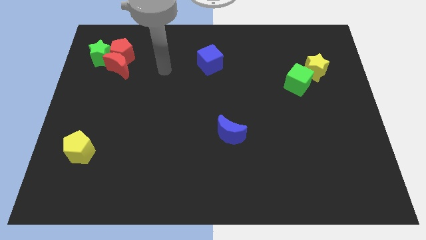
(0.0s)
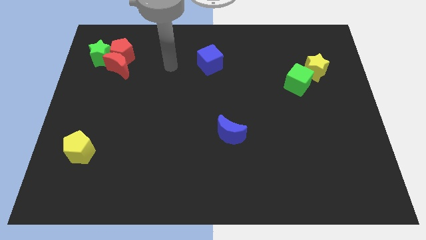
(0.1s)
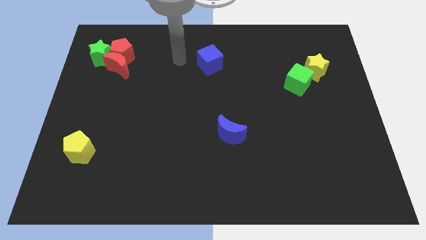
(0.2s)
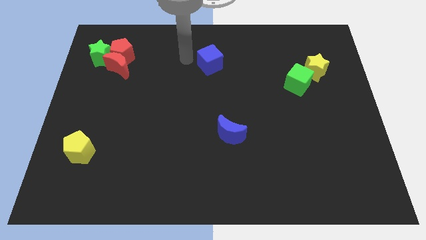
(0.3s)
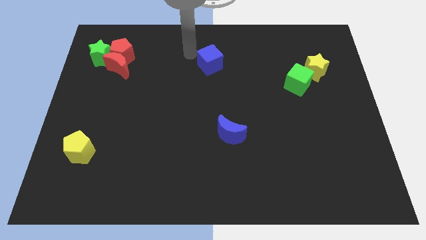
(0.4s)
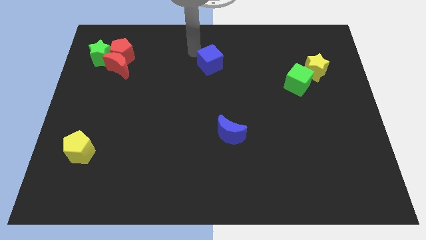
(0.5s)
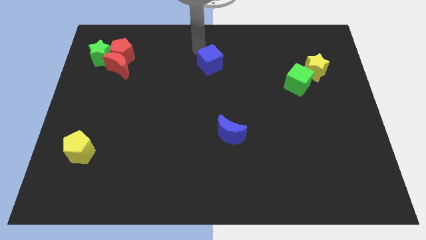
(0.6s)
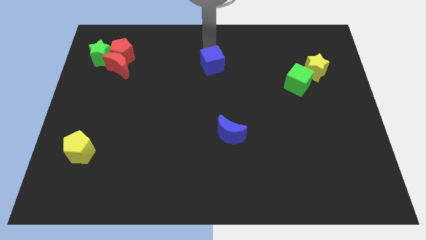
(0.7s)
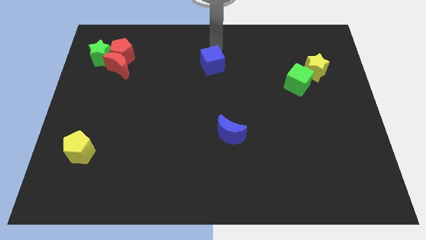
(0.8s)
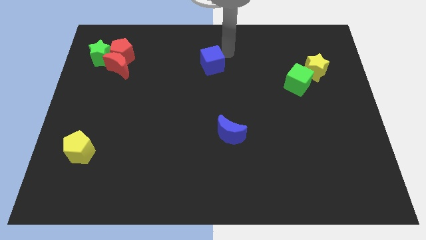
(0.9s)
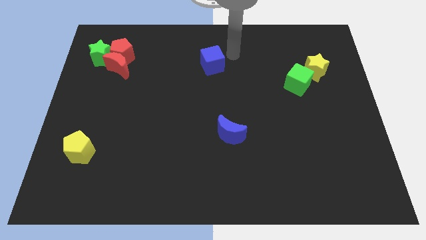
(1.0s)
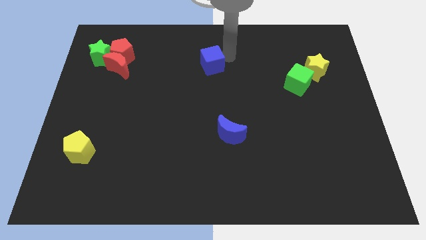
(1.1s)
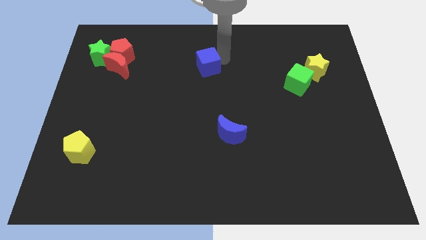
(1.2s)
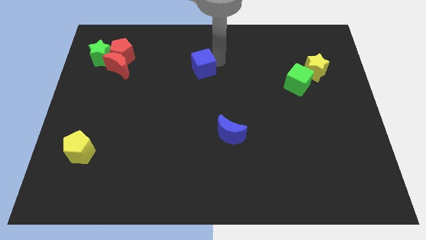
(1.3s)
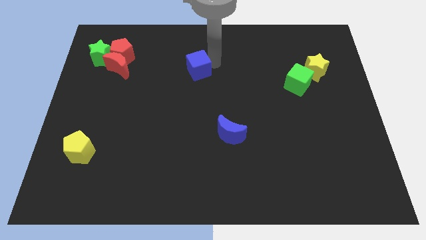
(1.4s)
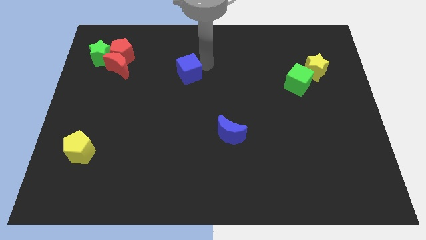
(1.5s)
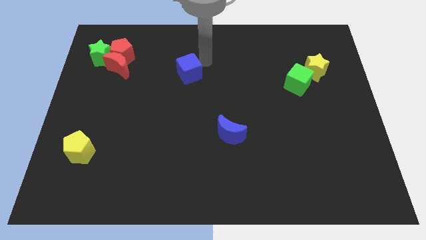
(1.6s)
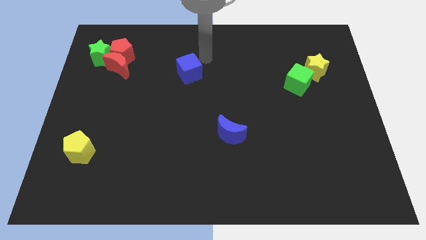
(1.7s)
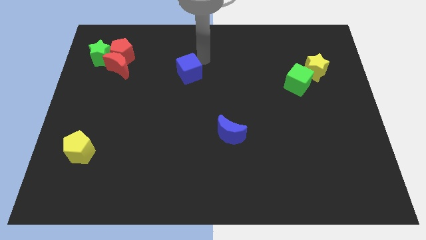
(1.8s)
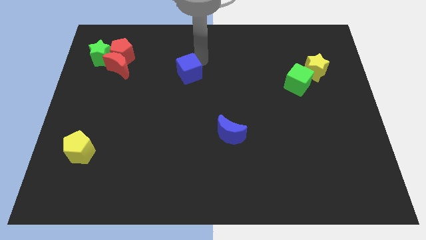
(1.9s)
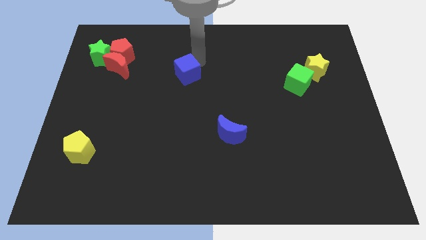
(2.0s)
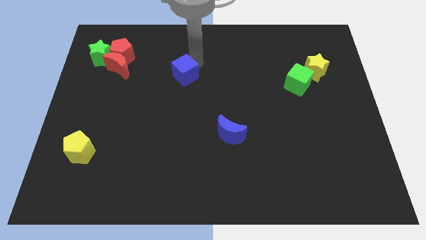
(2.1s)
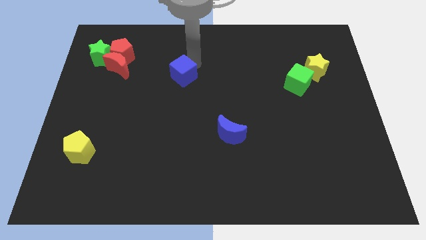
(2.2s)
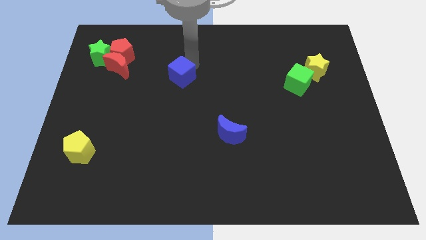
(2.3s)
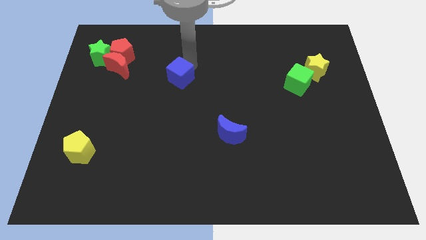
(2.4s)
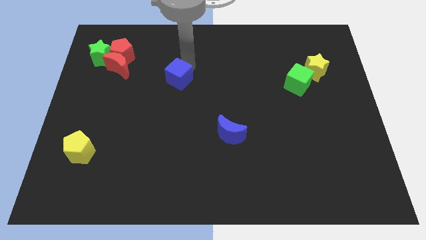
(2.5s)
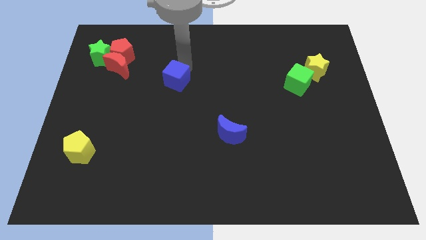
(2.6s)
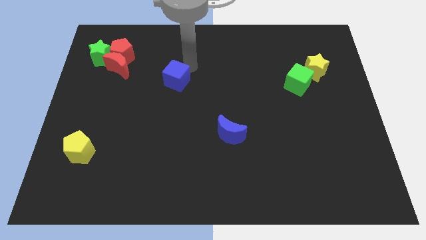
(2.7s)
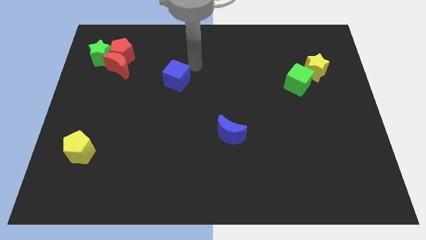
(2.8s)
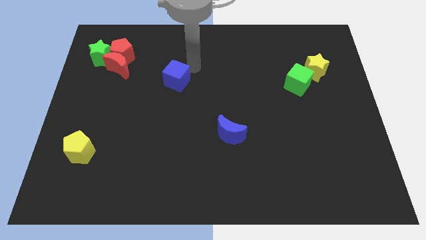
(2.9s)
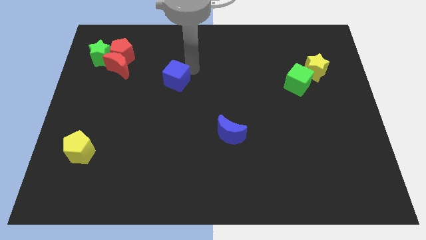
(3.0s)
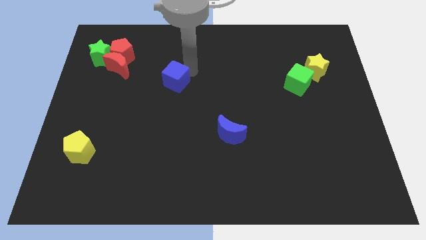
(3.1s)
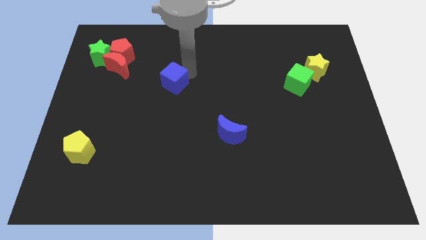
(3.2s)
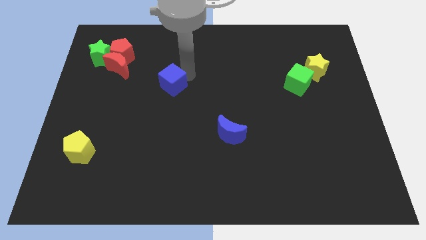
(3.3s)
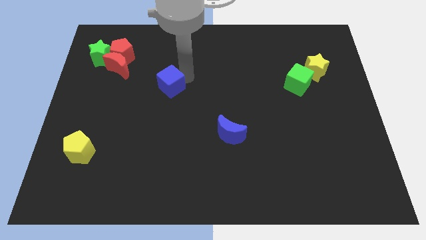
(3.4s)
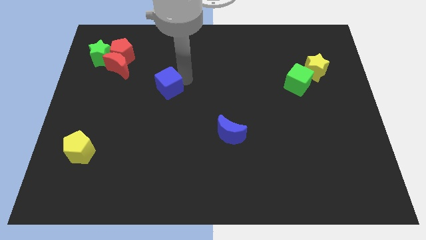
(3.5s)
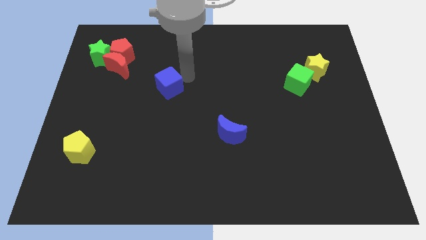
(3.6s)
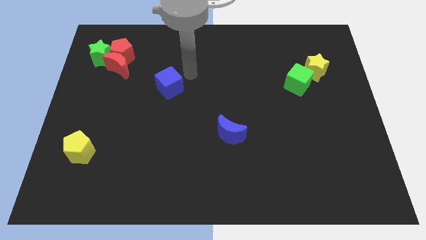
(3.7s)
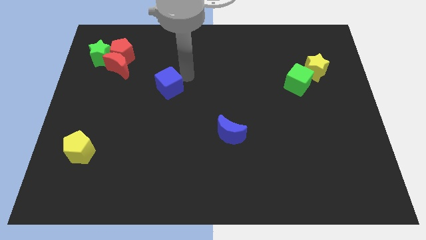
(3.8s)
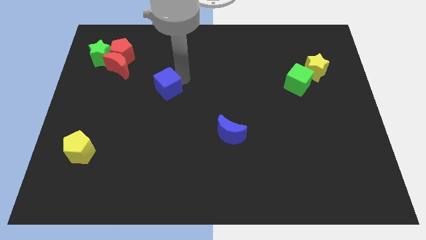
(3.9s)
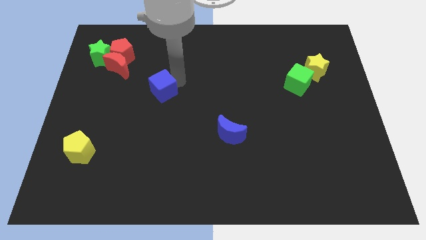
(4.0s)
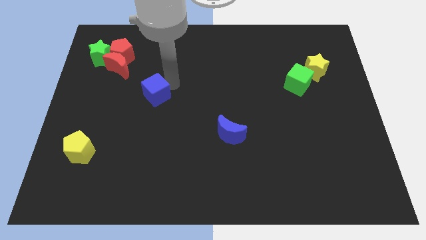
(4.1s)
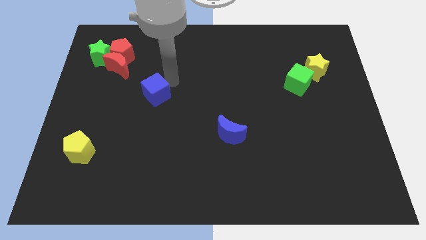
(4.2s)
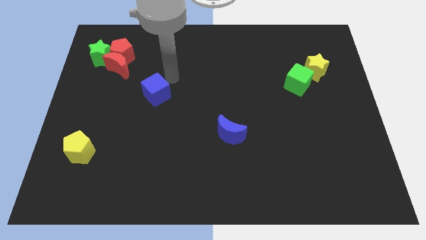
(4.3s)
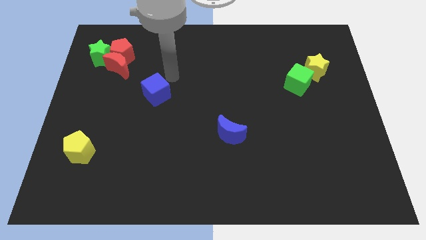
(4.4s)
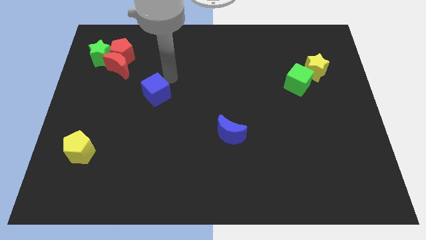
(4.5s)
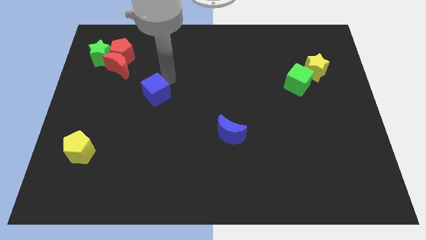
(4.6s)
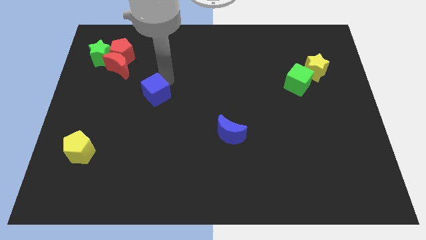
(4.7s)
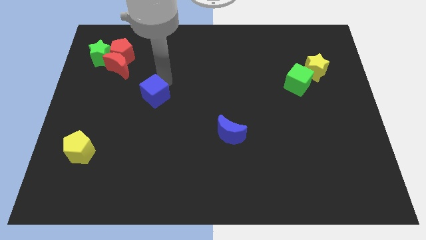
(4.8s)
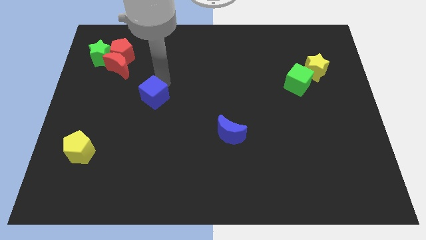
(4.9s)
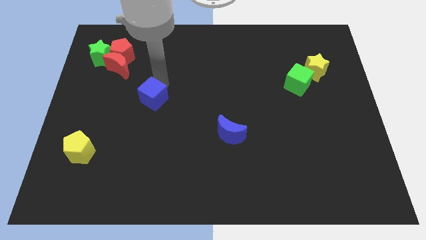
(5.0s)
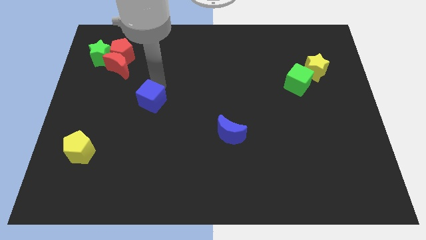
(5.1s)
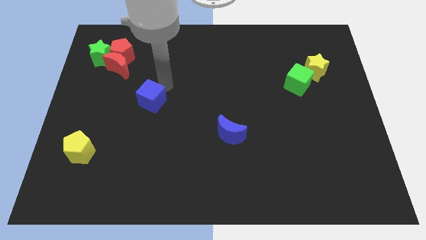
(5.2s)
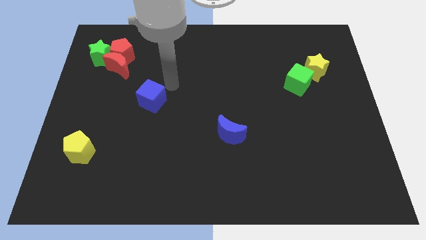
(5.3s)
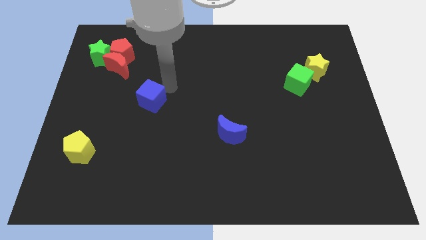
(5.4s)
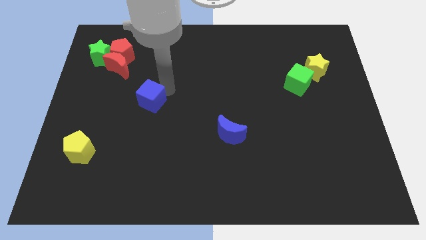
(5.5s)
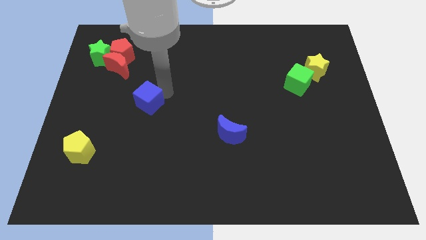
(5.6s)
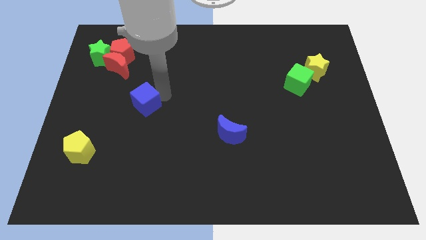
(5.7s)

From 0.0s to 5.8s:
push the blue cube diagonally down and to the left

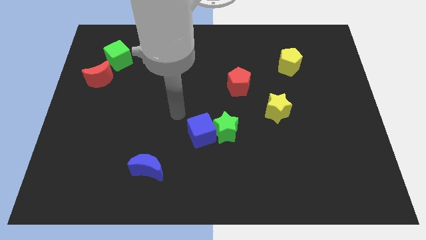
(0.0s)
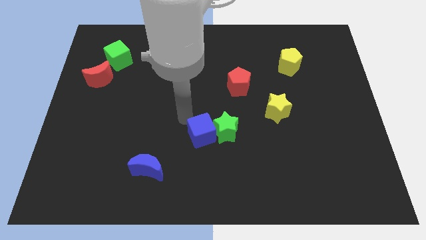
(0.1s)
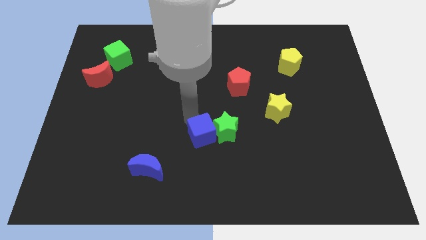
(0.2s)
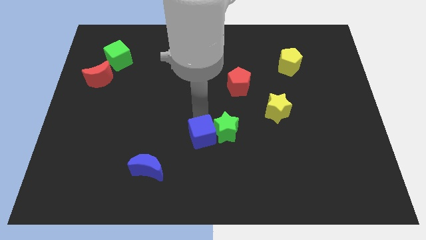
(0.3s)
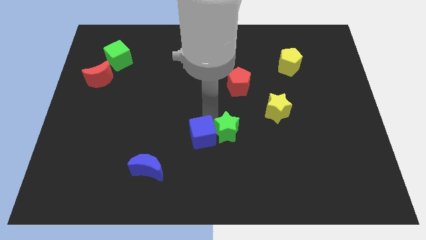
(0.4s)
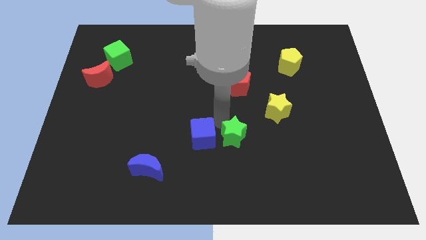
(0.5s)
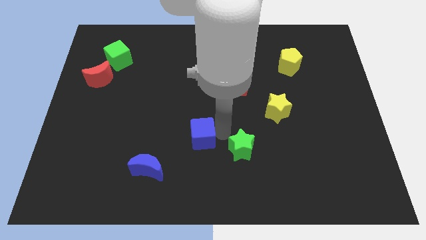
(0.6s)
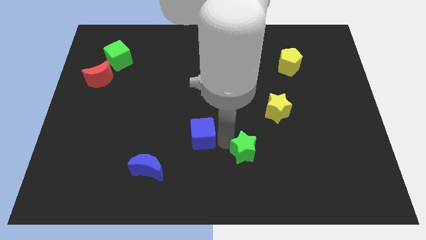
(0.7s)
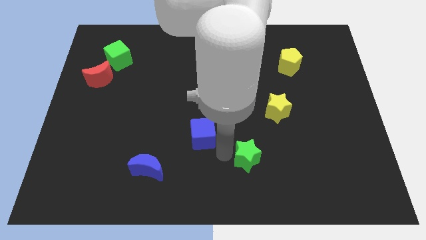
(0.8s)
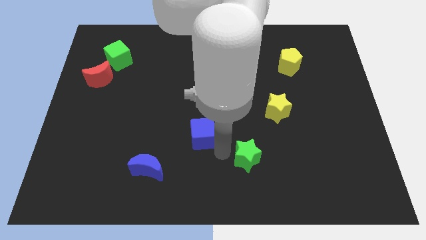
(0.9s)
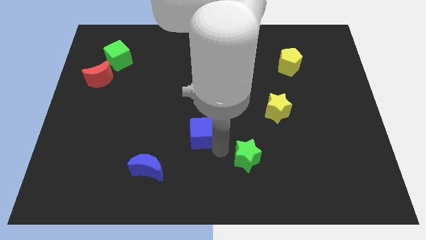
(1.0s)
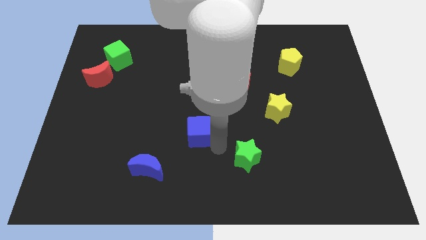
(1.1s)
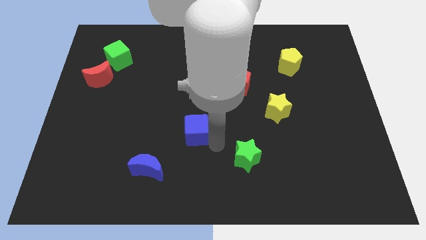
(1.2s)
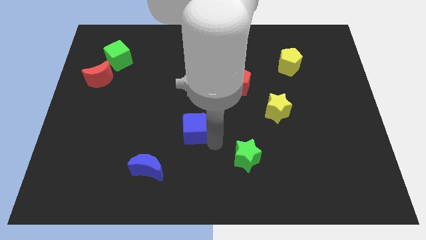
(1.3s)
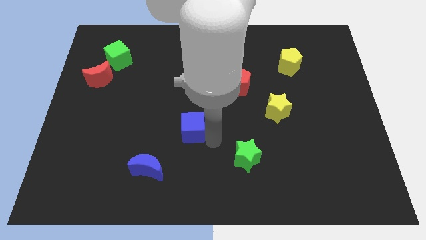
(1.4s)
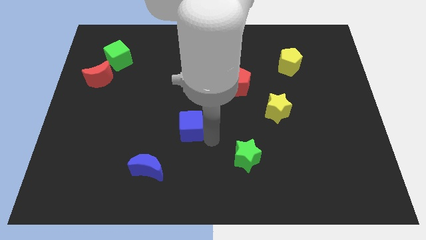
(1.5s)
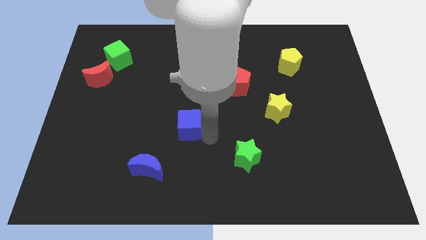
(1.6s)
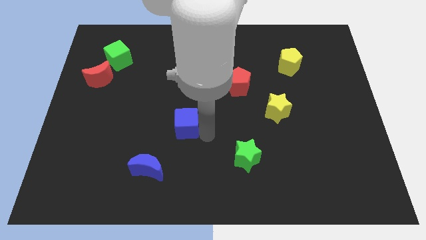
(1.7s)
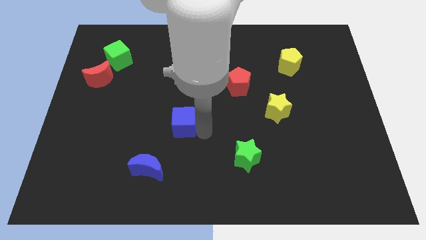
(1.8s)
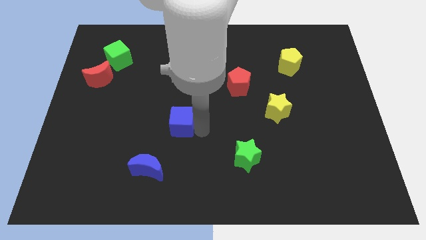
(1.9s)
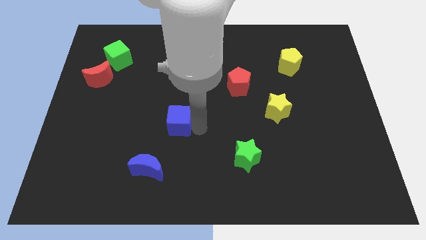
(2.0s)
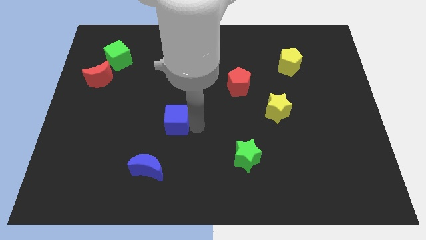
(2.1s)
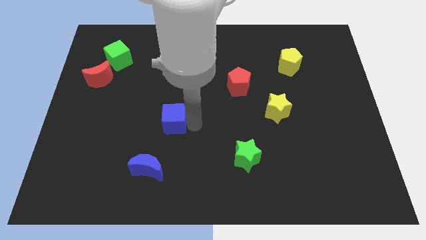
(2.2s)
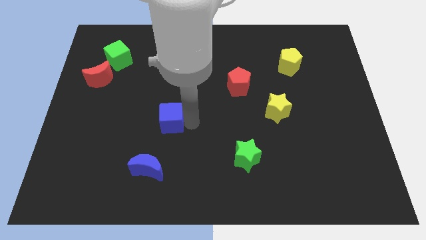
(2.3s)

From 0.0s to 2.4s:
slide the blue cube upwards and to the left somewhat
